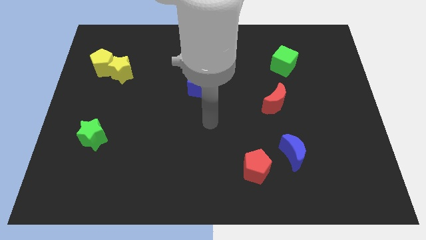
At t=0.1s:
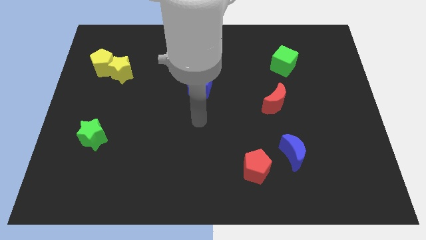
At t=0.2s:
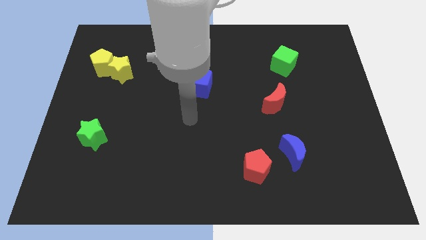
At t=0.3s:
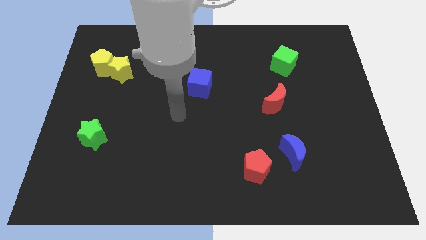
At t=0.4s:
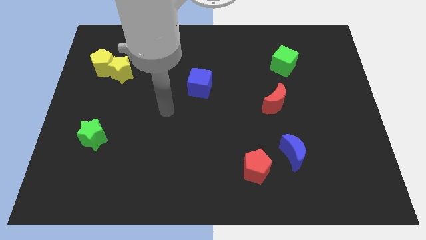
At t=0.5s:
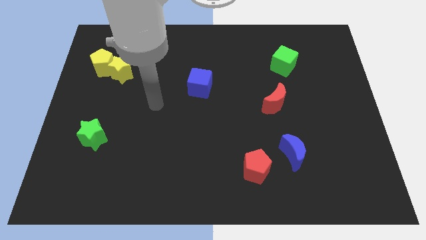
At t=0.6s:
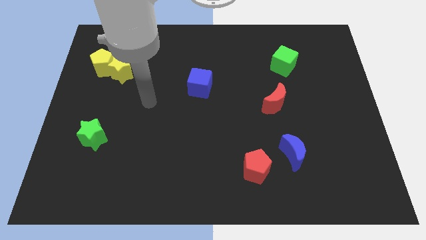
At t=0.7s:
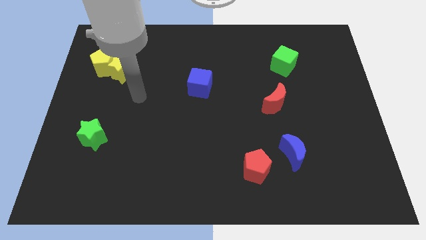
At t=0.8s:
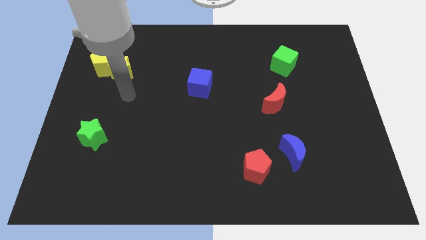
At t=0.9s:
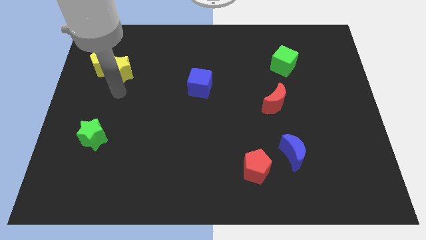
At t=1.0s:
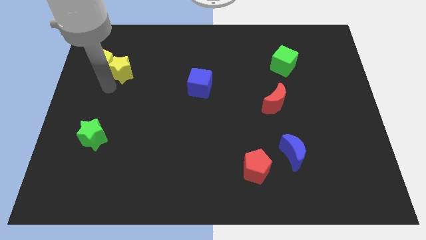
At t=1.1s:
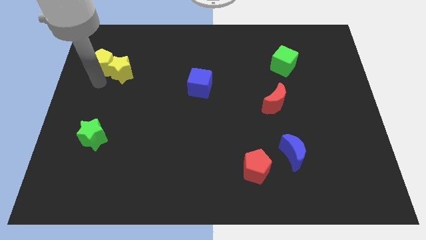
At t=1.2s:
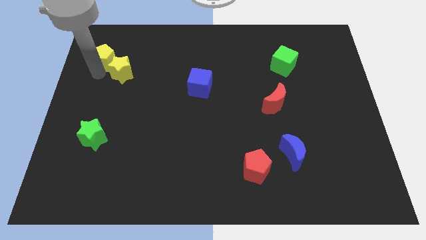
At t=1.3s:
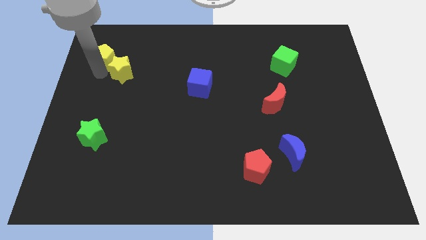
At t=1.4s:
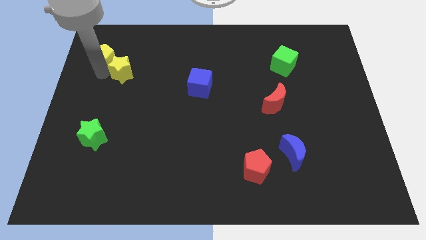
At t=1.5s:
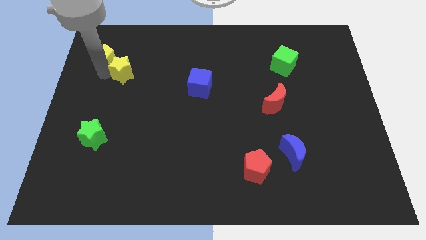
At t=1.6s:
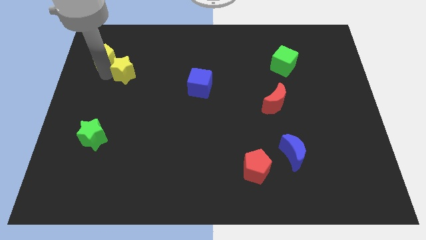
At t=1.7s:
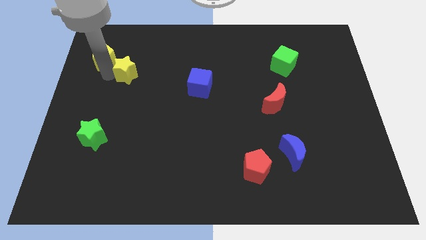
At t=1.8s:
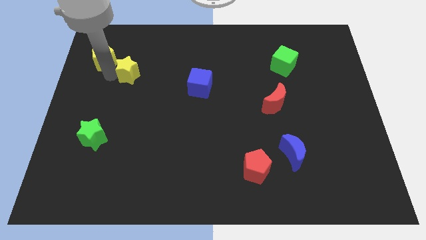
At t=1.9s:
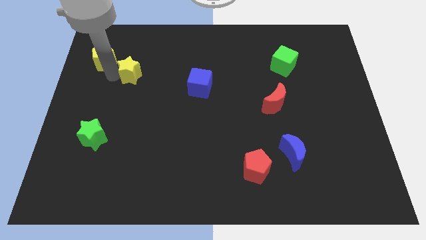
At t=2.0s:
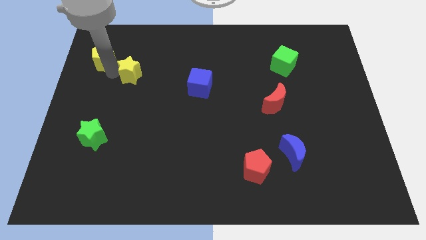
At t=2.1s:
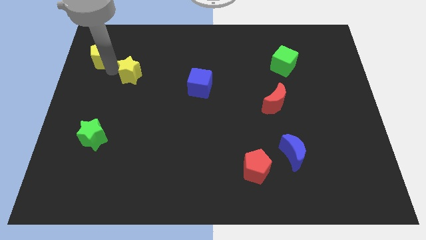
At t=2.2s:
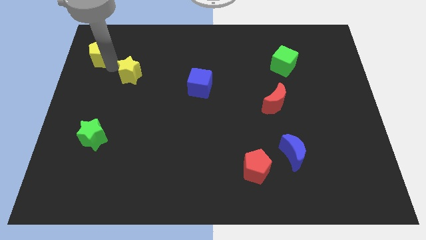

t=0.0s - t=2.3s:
separate the yellow star from the yellow pentagon

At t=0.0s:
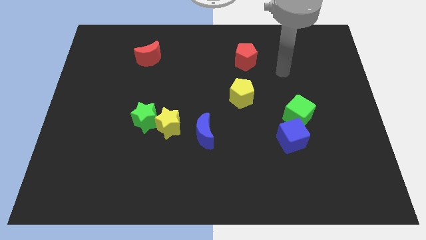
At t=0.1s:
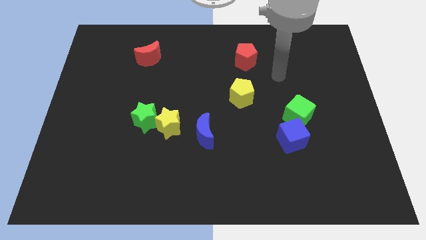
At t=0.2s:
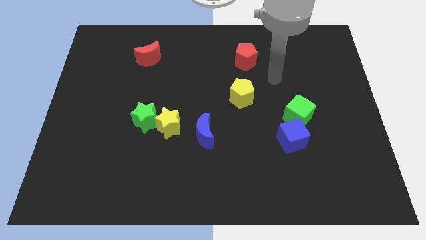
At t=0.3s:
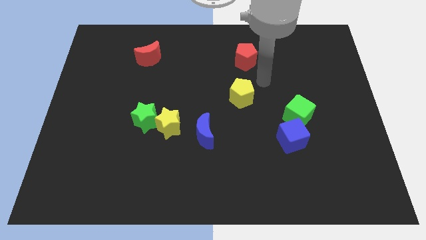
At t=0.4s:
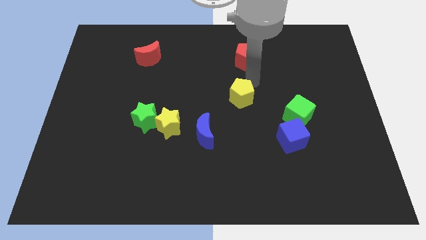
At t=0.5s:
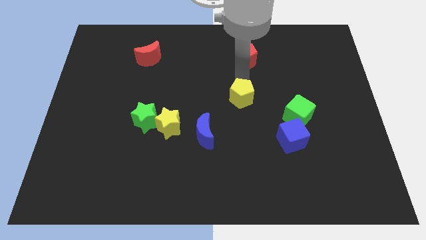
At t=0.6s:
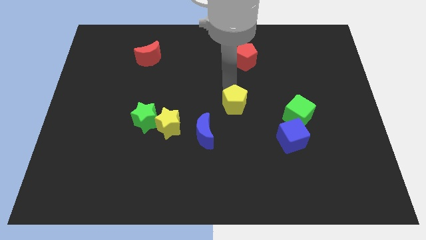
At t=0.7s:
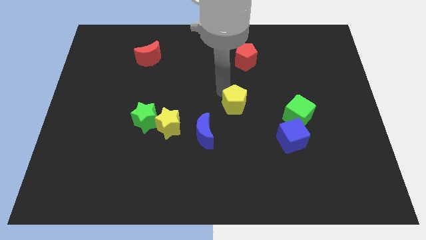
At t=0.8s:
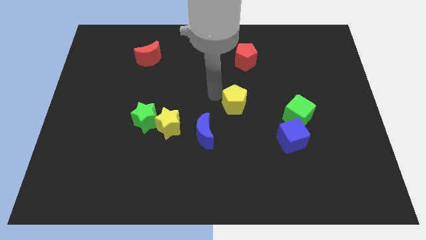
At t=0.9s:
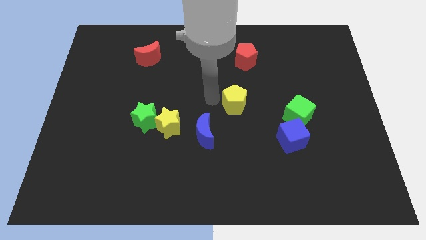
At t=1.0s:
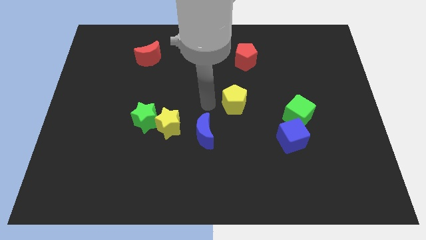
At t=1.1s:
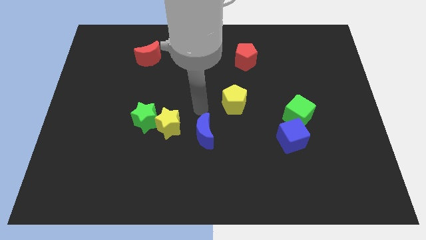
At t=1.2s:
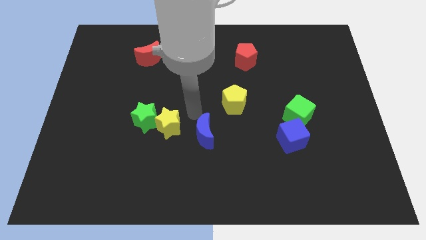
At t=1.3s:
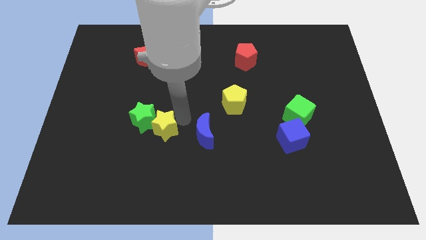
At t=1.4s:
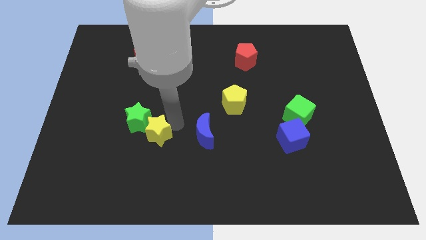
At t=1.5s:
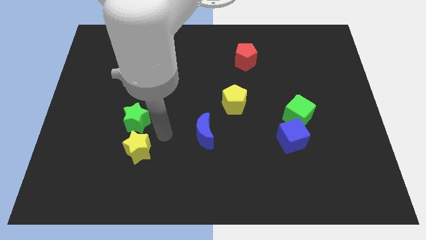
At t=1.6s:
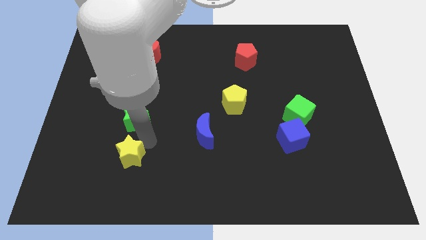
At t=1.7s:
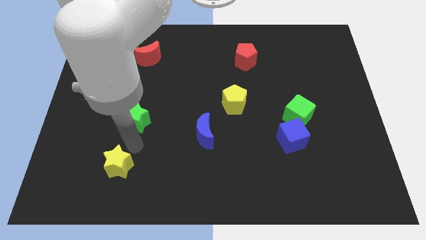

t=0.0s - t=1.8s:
separate the green star from the yellow star

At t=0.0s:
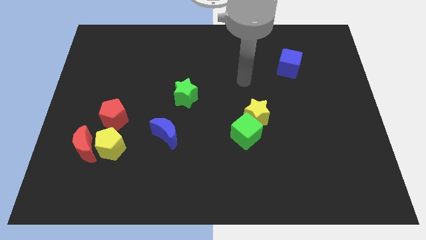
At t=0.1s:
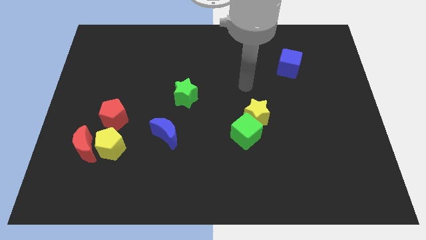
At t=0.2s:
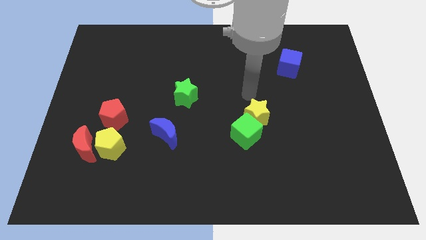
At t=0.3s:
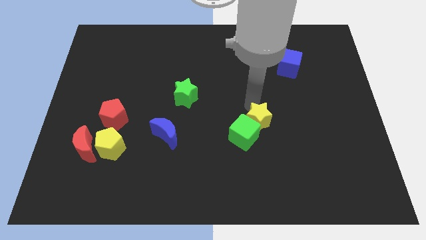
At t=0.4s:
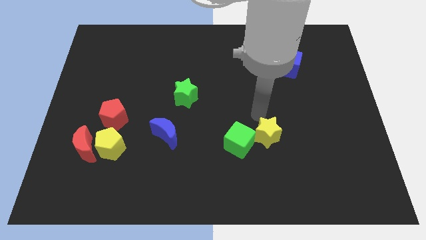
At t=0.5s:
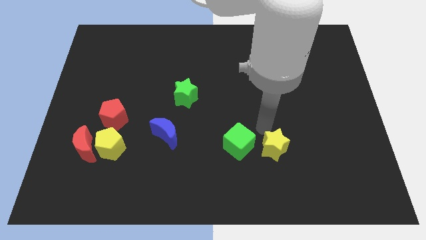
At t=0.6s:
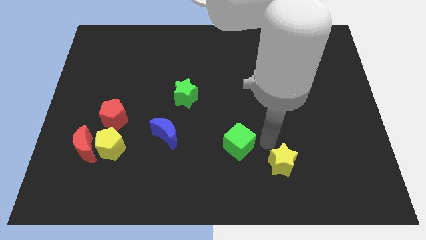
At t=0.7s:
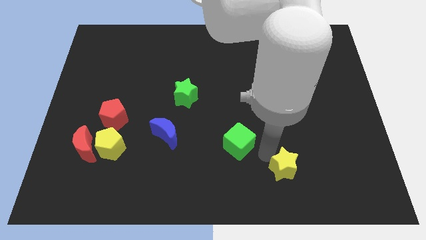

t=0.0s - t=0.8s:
pull the green cube apart from the yellow star

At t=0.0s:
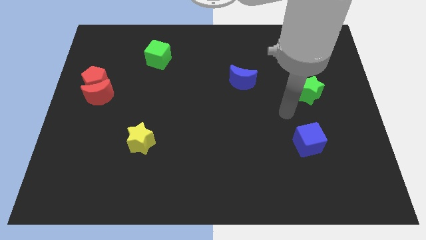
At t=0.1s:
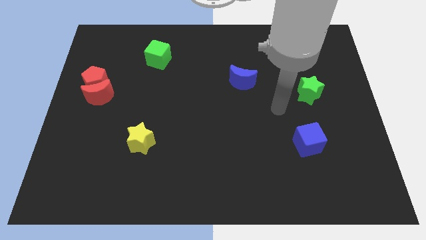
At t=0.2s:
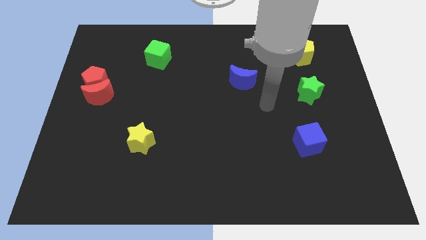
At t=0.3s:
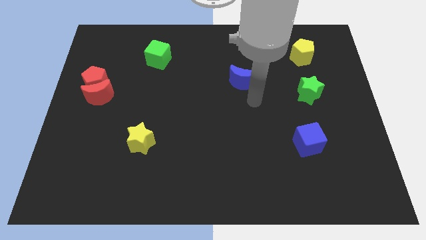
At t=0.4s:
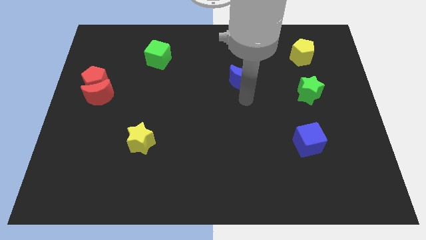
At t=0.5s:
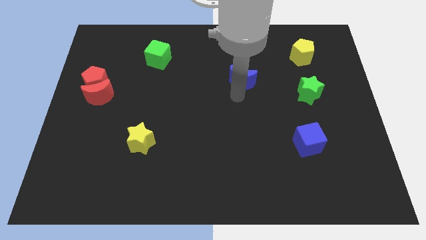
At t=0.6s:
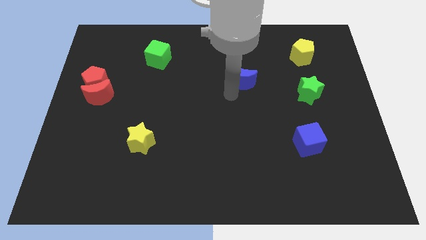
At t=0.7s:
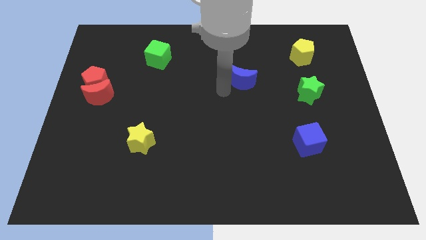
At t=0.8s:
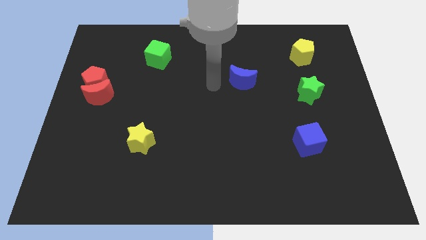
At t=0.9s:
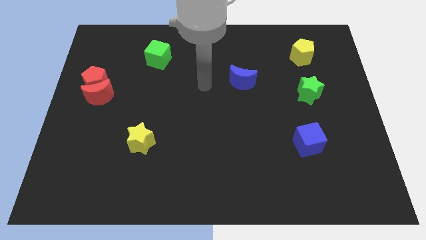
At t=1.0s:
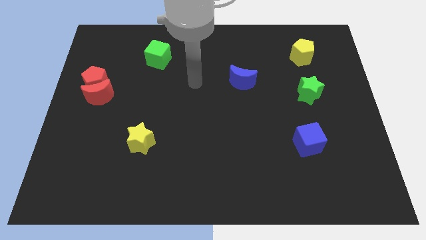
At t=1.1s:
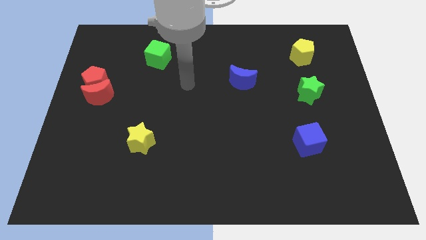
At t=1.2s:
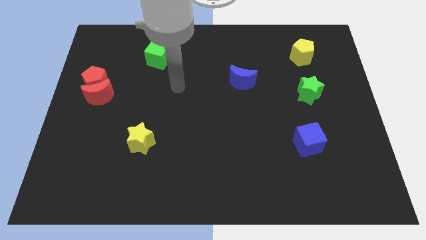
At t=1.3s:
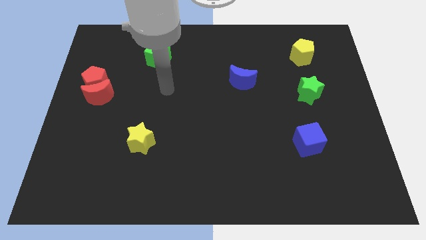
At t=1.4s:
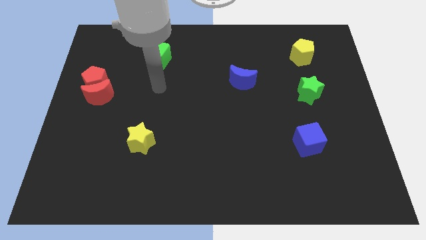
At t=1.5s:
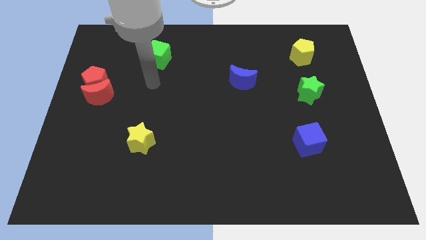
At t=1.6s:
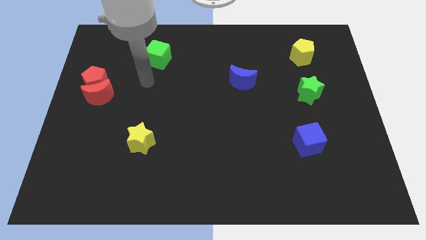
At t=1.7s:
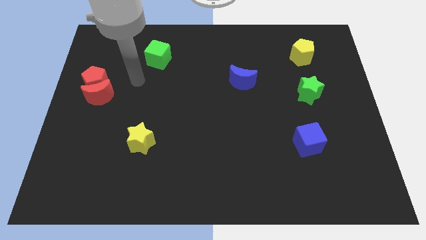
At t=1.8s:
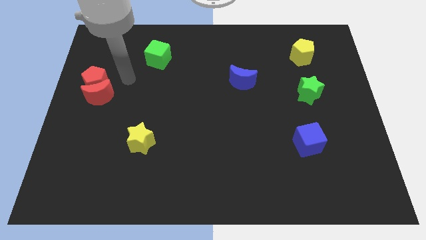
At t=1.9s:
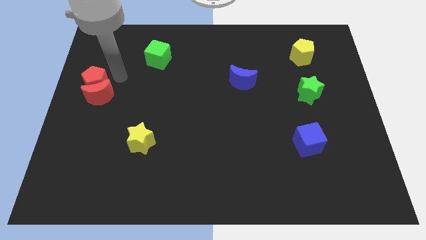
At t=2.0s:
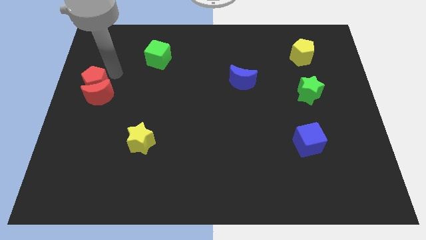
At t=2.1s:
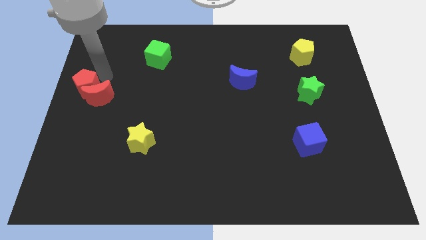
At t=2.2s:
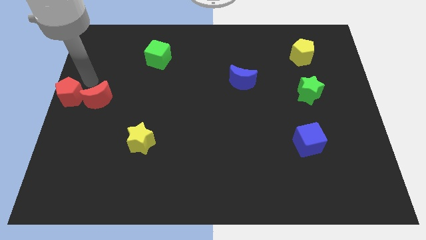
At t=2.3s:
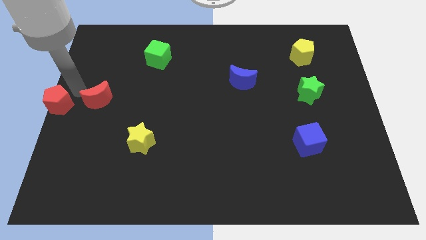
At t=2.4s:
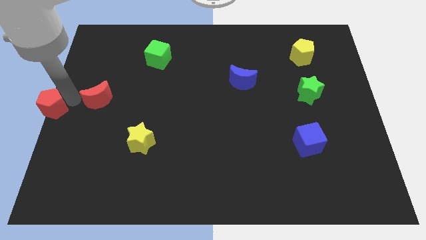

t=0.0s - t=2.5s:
separate the red moon from the red pentagon

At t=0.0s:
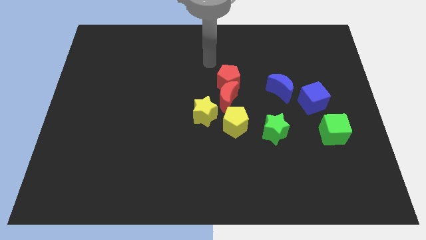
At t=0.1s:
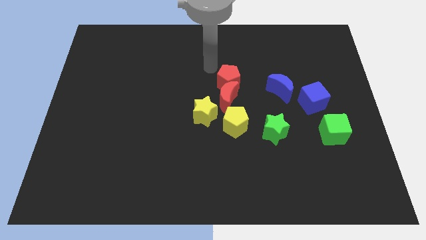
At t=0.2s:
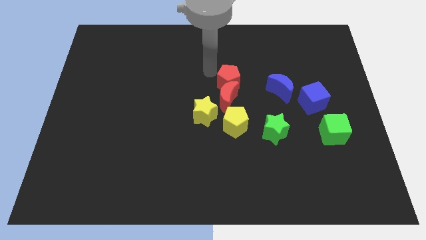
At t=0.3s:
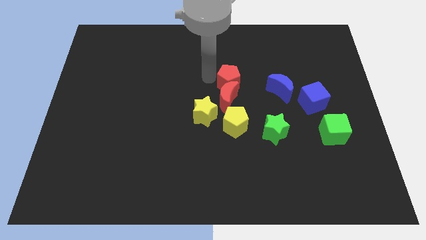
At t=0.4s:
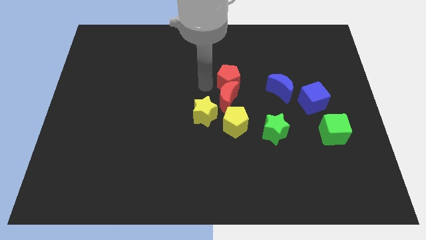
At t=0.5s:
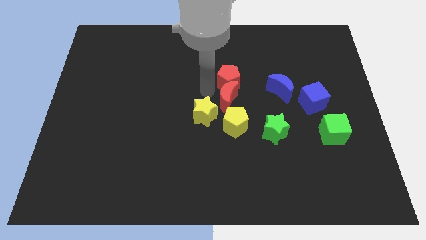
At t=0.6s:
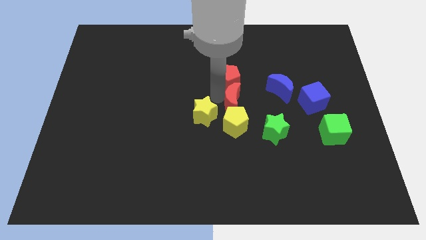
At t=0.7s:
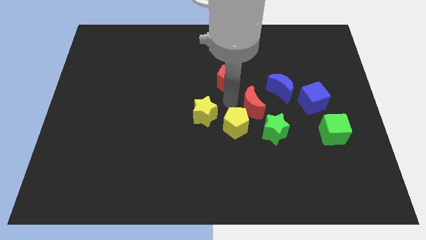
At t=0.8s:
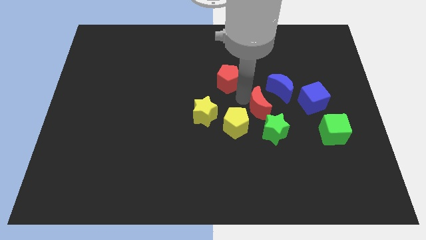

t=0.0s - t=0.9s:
separate the red pentagon from the red moon

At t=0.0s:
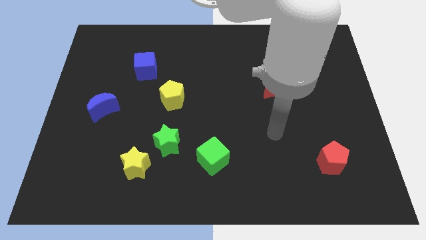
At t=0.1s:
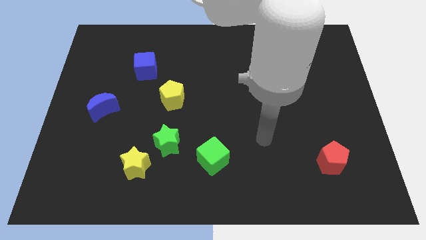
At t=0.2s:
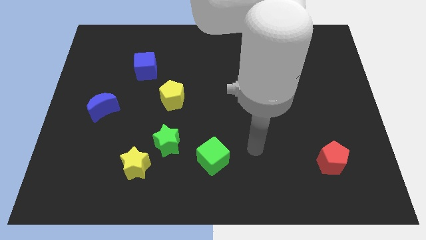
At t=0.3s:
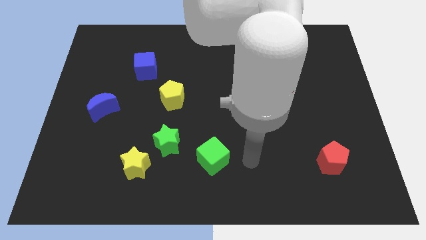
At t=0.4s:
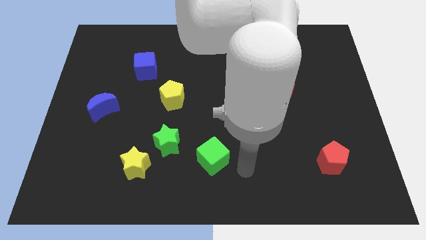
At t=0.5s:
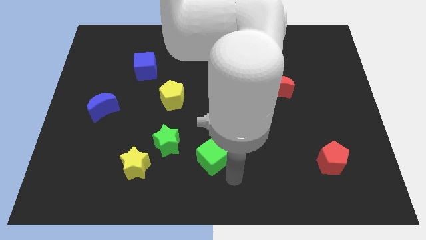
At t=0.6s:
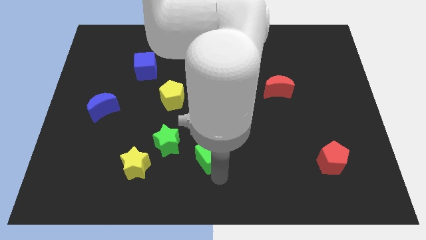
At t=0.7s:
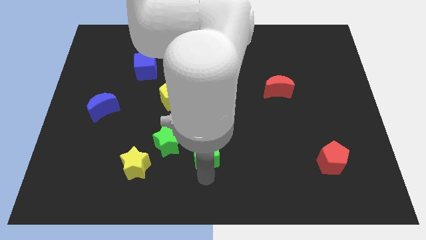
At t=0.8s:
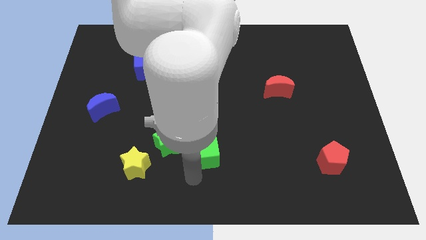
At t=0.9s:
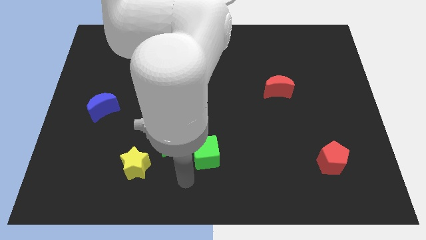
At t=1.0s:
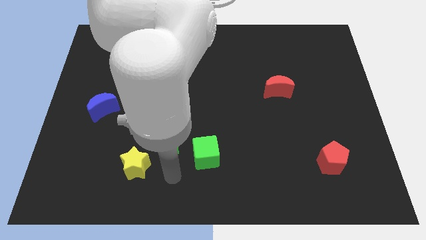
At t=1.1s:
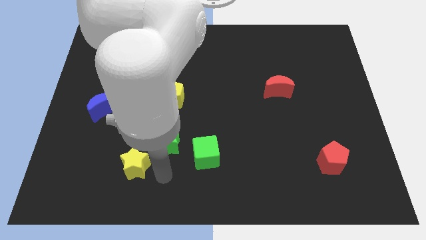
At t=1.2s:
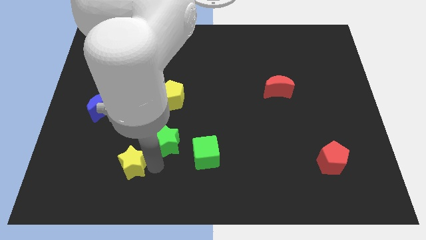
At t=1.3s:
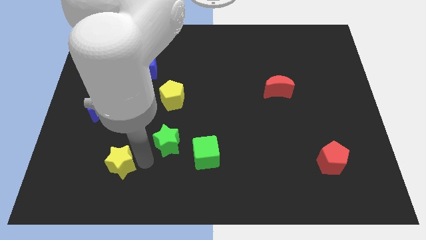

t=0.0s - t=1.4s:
pull the green star apart from the yellow star
